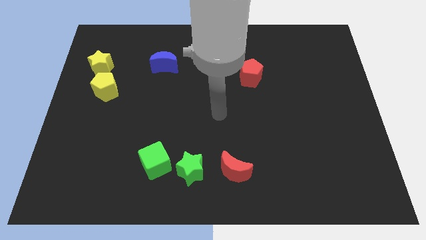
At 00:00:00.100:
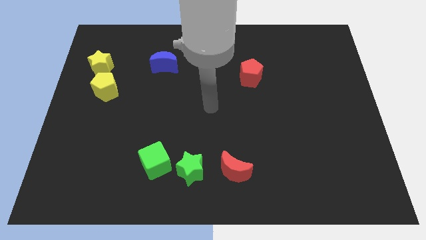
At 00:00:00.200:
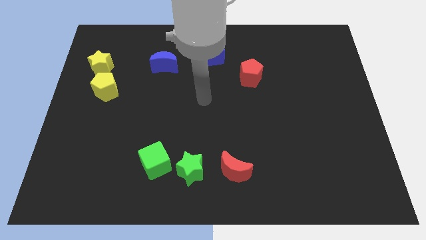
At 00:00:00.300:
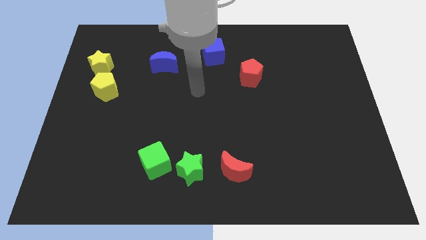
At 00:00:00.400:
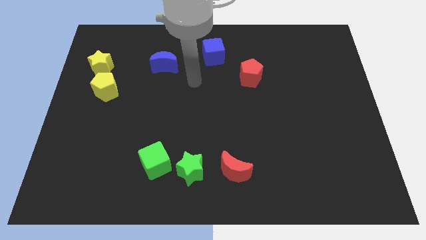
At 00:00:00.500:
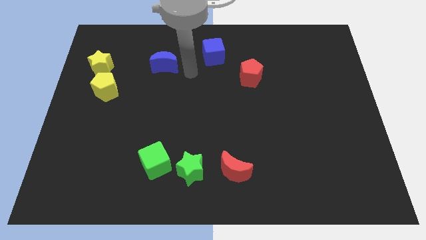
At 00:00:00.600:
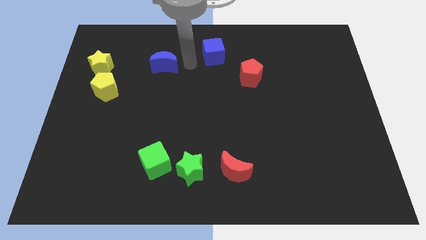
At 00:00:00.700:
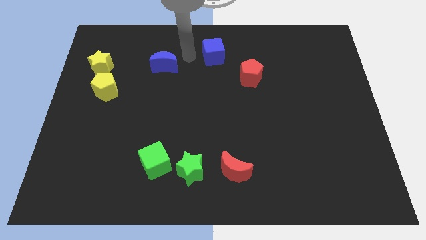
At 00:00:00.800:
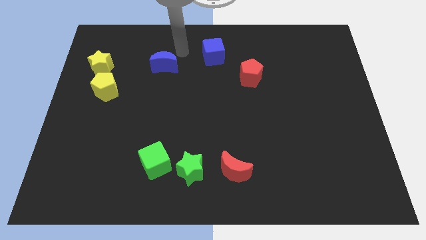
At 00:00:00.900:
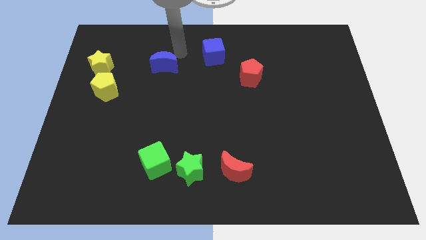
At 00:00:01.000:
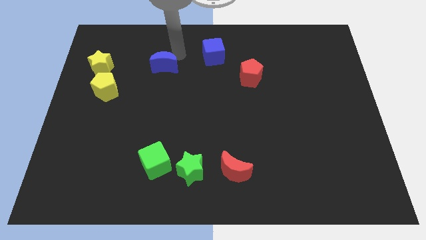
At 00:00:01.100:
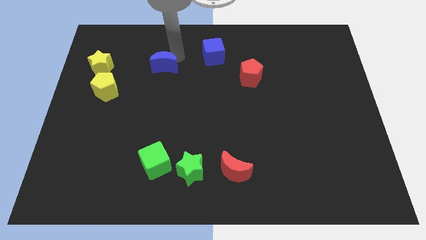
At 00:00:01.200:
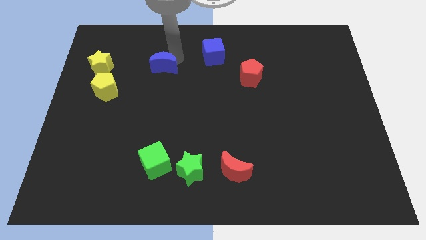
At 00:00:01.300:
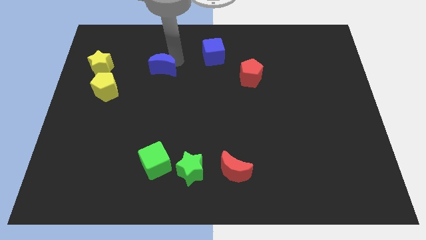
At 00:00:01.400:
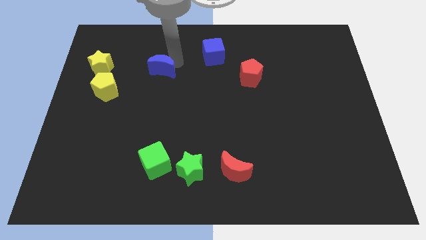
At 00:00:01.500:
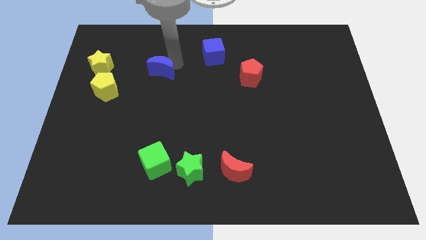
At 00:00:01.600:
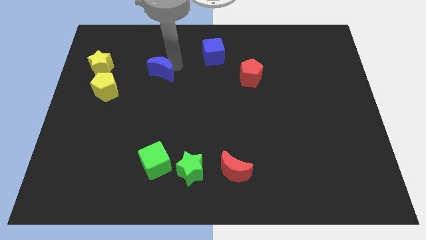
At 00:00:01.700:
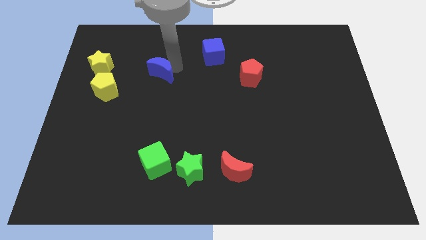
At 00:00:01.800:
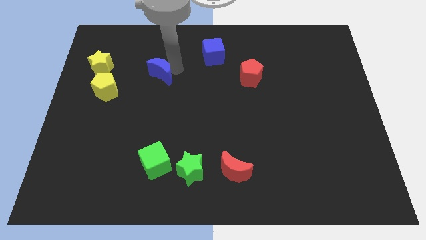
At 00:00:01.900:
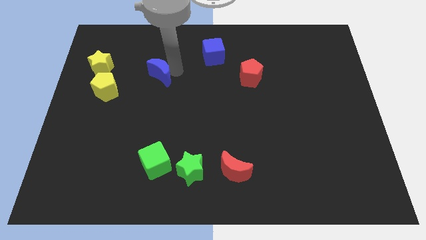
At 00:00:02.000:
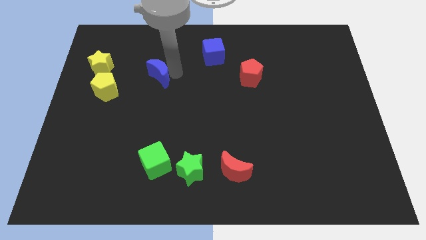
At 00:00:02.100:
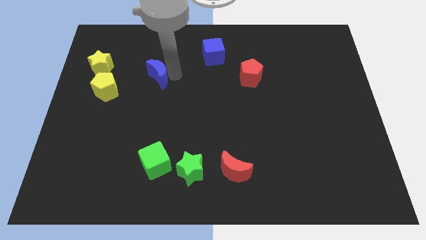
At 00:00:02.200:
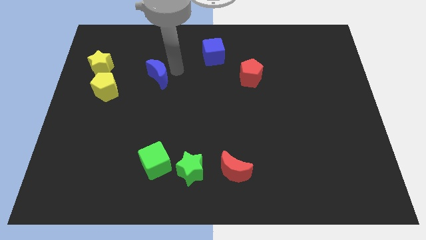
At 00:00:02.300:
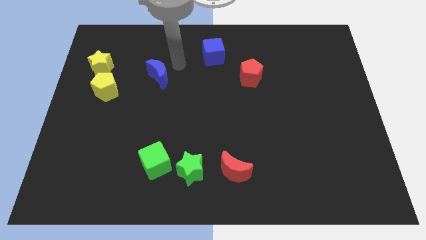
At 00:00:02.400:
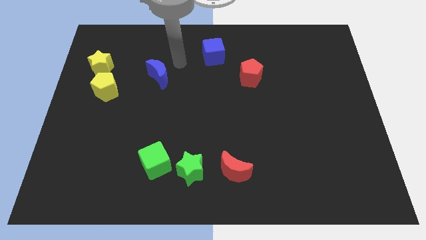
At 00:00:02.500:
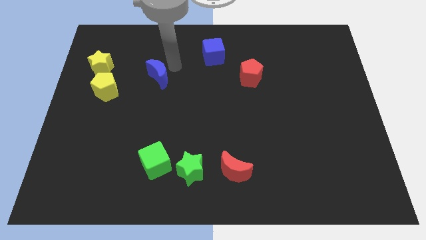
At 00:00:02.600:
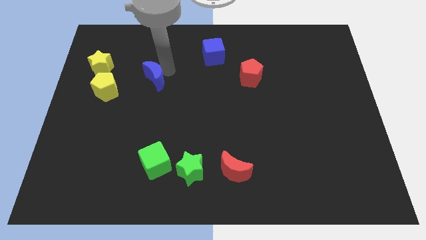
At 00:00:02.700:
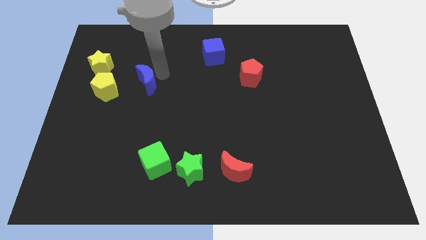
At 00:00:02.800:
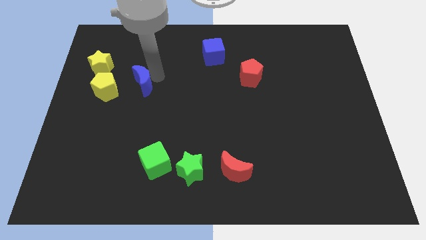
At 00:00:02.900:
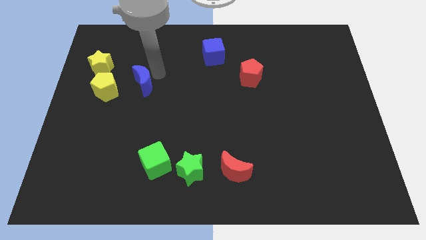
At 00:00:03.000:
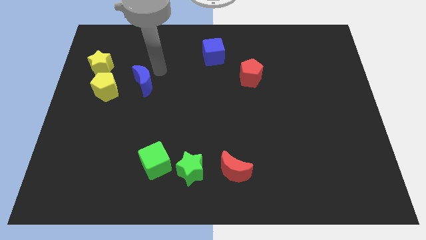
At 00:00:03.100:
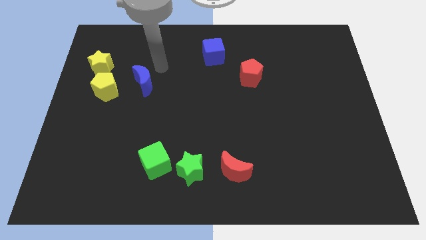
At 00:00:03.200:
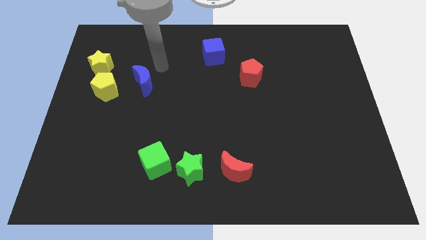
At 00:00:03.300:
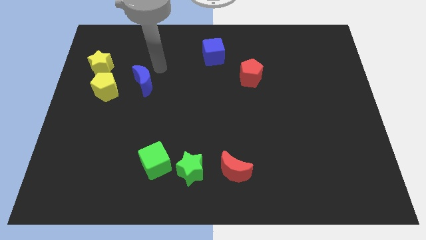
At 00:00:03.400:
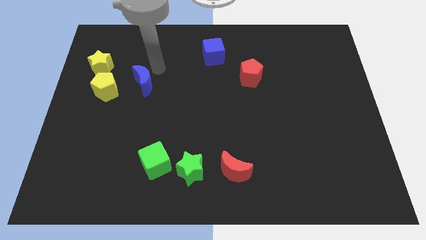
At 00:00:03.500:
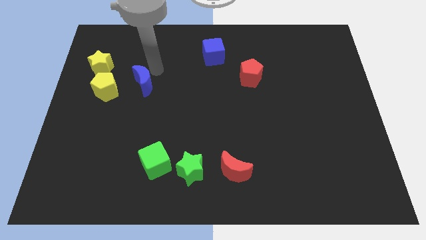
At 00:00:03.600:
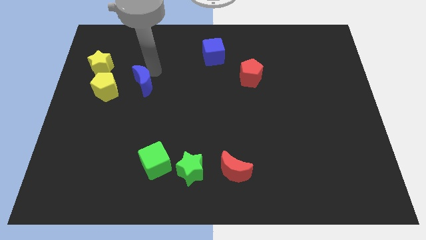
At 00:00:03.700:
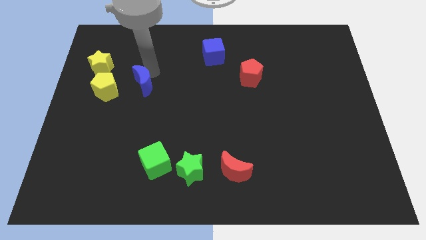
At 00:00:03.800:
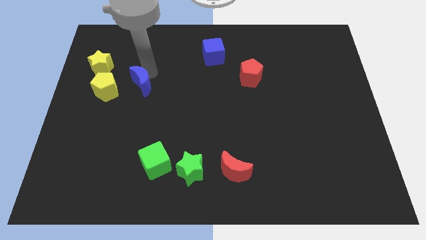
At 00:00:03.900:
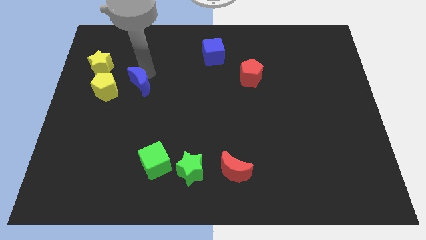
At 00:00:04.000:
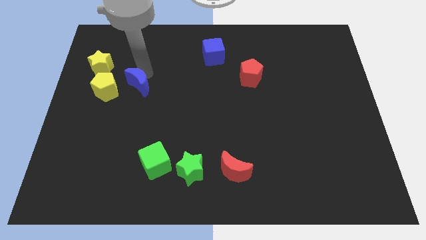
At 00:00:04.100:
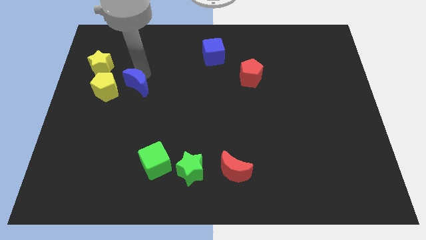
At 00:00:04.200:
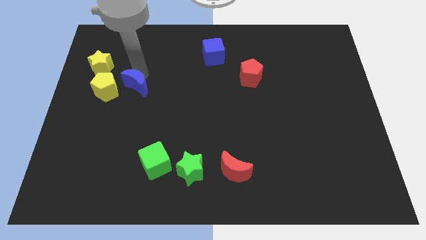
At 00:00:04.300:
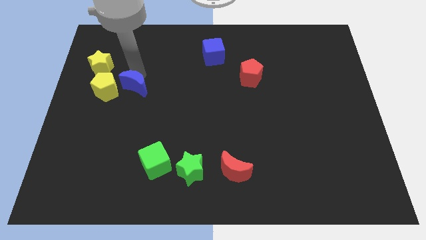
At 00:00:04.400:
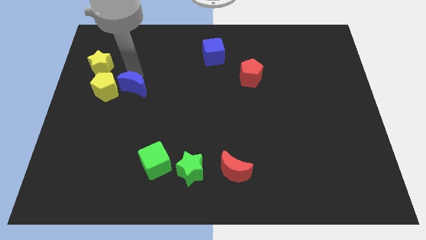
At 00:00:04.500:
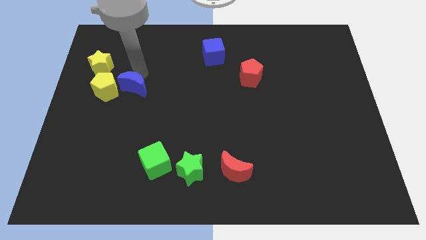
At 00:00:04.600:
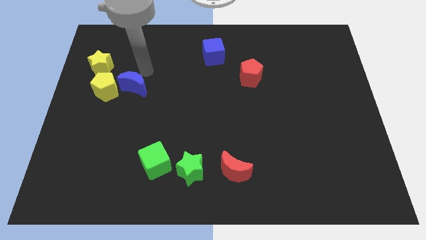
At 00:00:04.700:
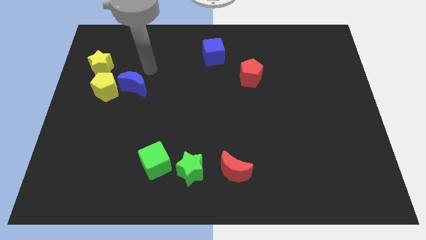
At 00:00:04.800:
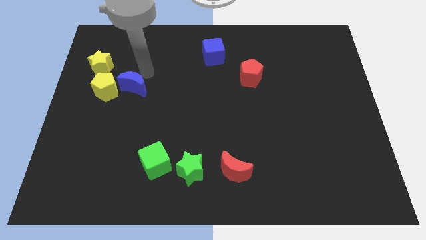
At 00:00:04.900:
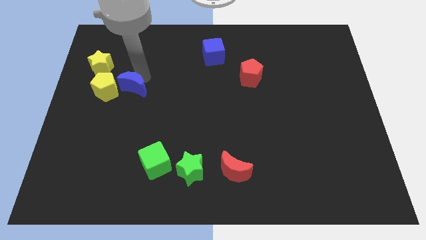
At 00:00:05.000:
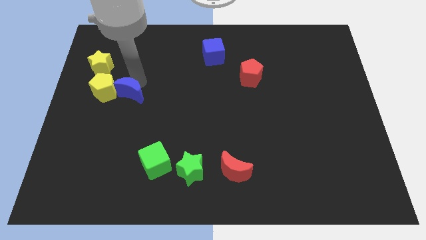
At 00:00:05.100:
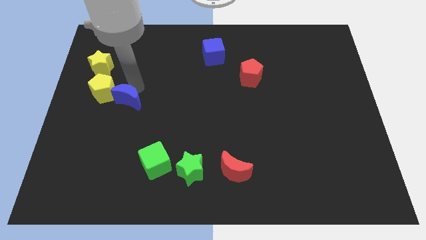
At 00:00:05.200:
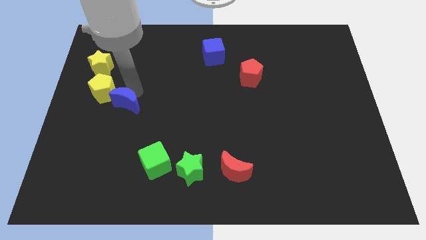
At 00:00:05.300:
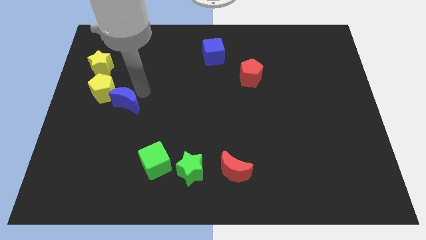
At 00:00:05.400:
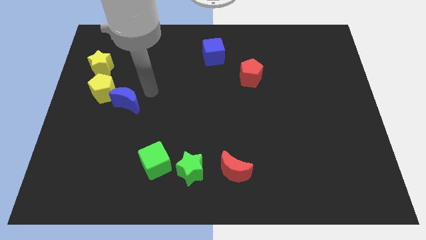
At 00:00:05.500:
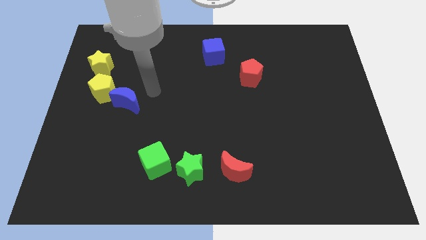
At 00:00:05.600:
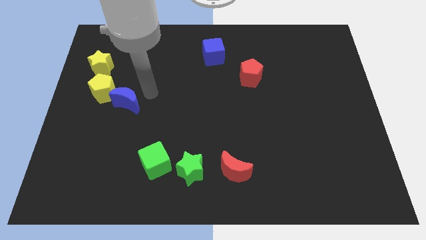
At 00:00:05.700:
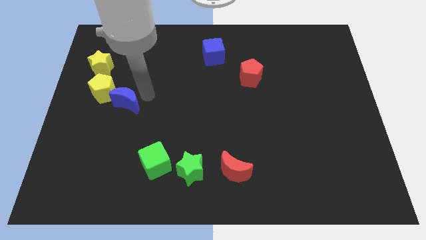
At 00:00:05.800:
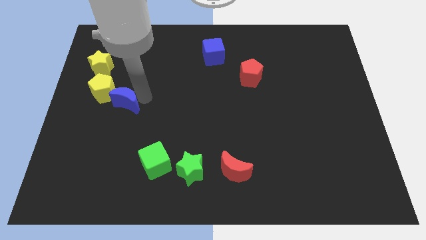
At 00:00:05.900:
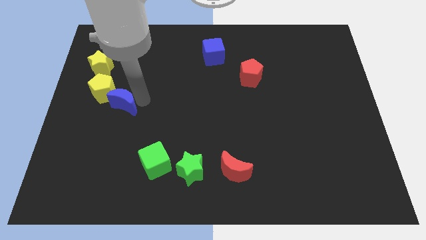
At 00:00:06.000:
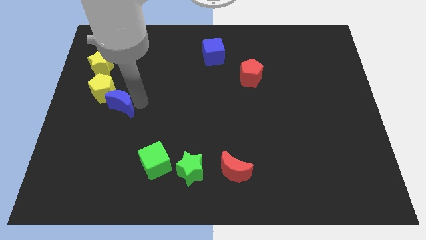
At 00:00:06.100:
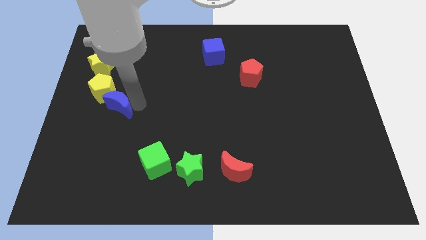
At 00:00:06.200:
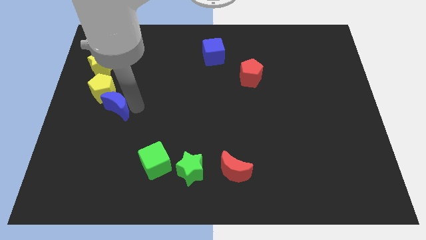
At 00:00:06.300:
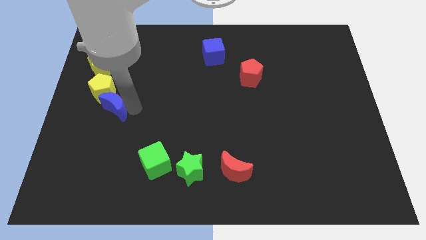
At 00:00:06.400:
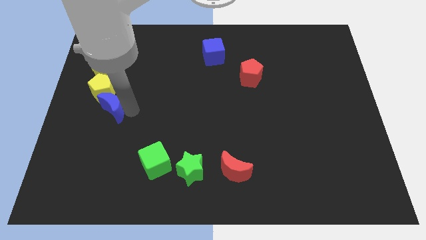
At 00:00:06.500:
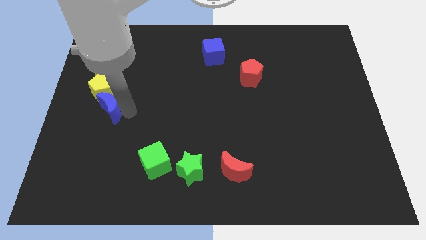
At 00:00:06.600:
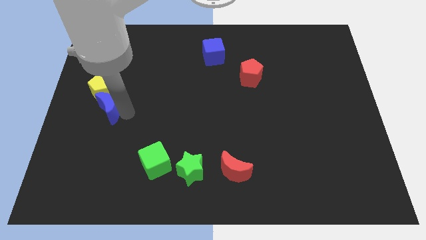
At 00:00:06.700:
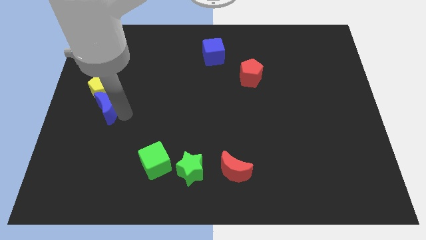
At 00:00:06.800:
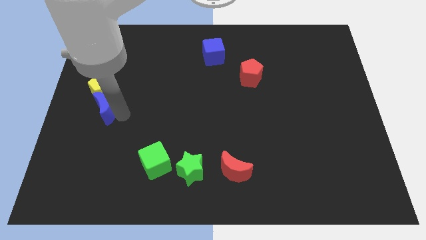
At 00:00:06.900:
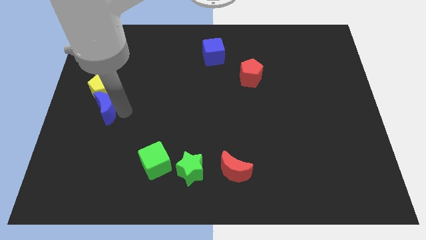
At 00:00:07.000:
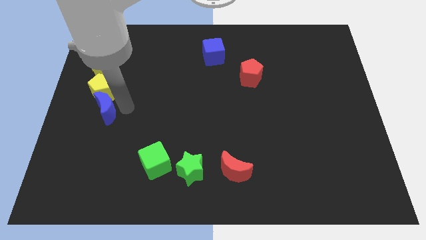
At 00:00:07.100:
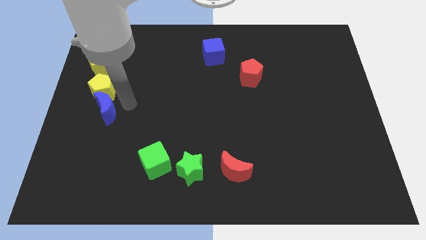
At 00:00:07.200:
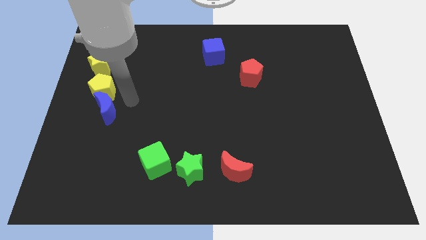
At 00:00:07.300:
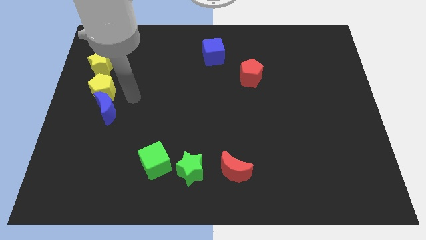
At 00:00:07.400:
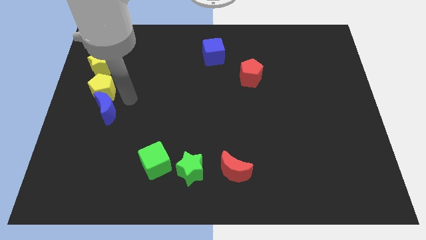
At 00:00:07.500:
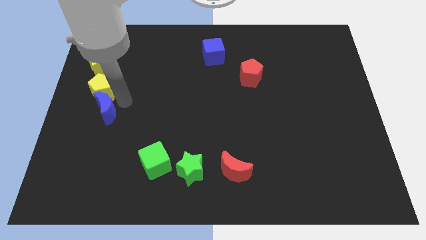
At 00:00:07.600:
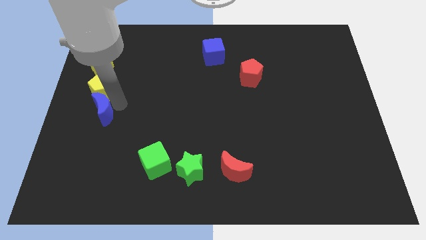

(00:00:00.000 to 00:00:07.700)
put the blue moon to the left side of the board
